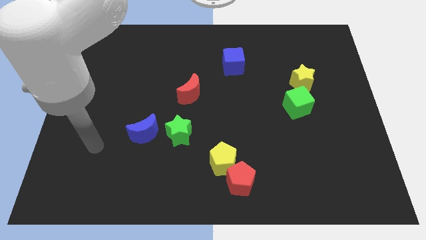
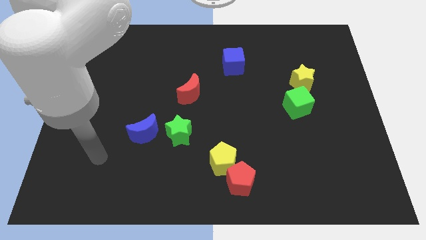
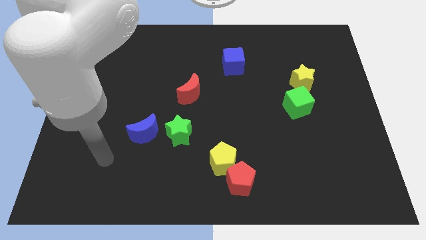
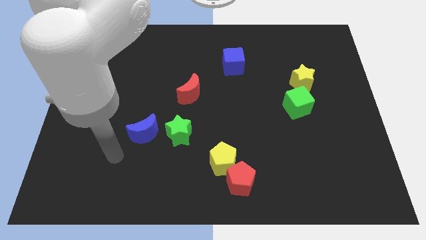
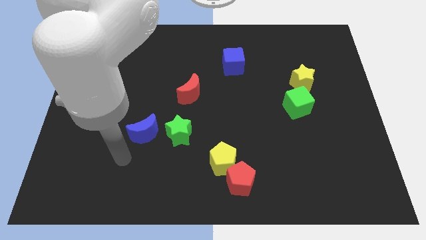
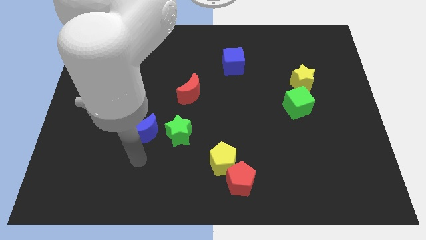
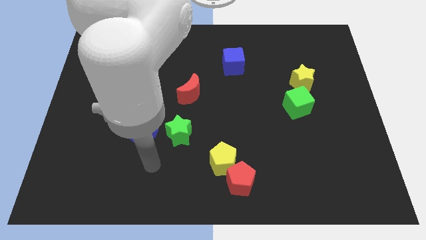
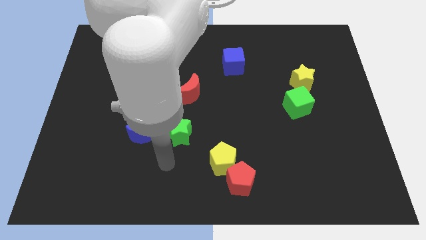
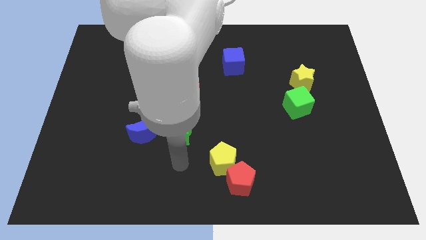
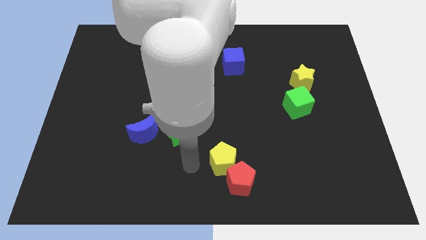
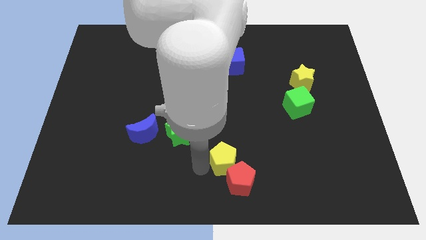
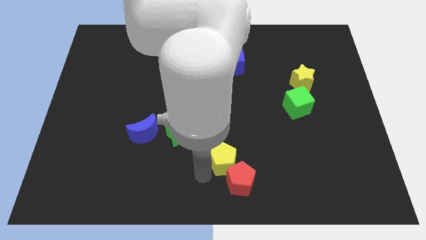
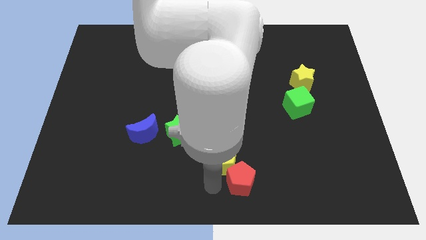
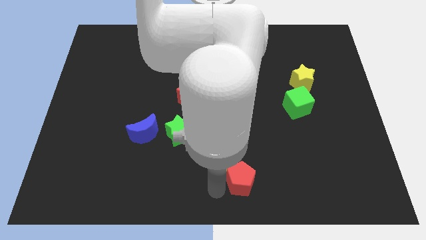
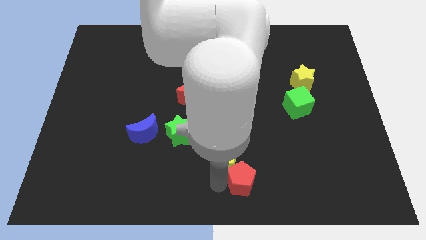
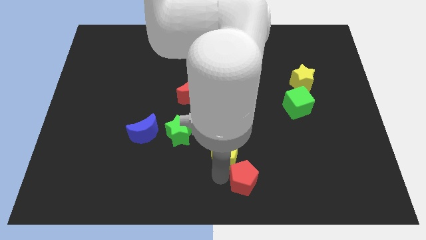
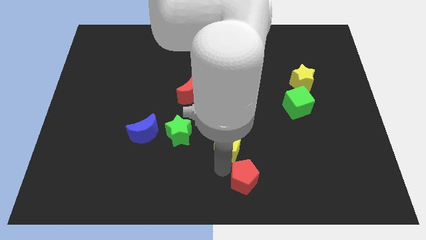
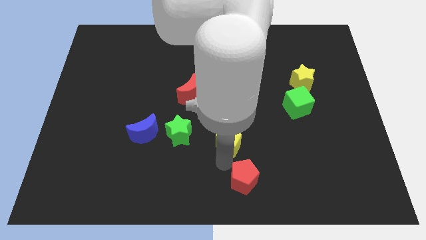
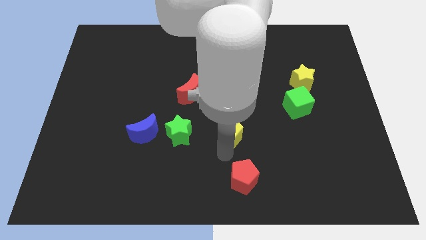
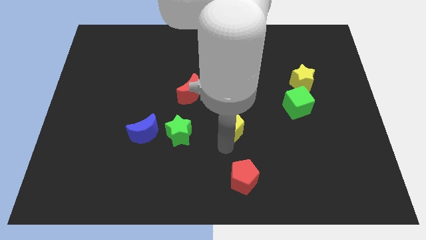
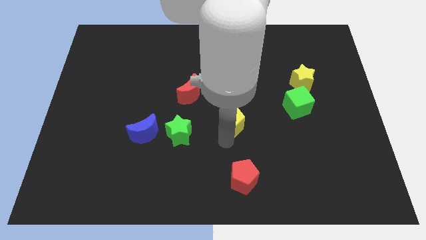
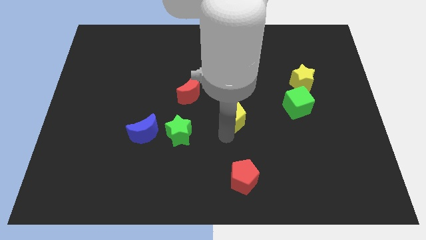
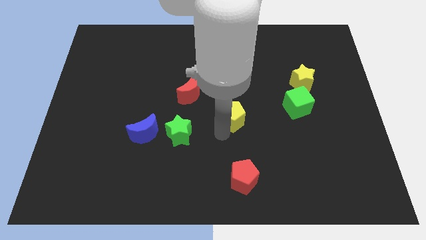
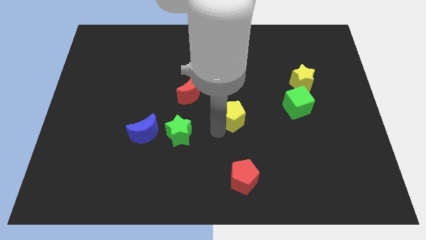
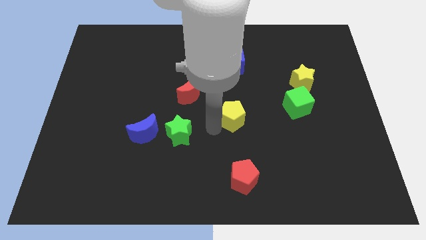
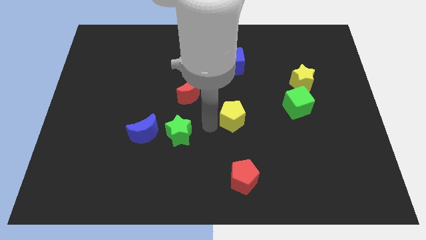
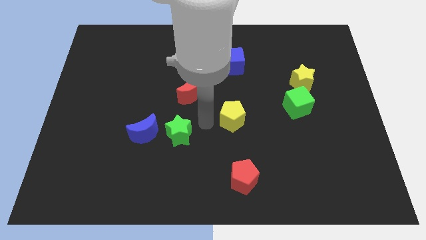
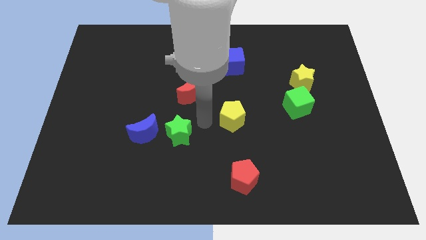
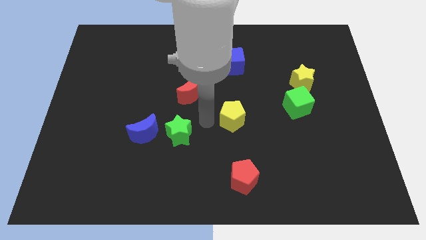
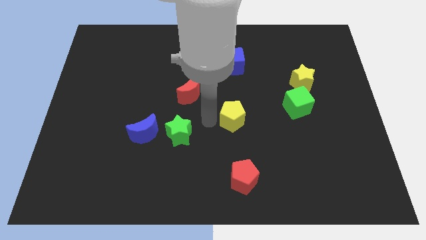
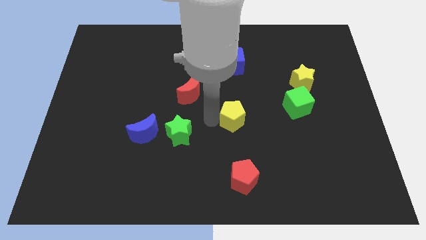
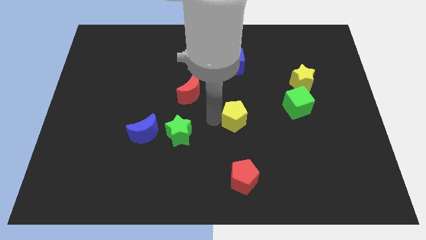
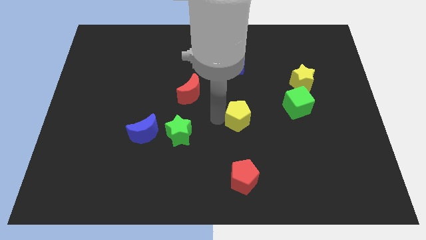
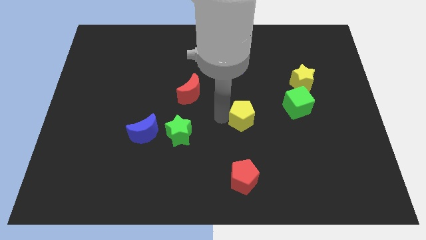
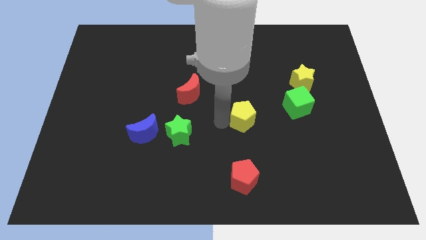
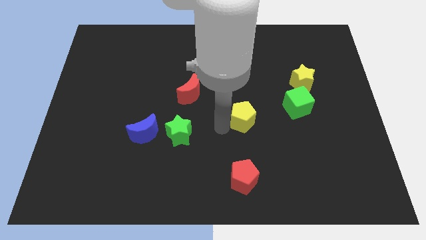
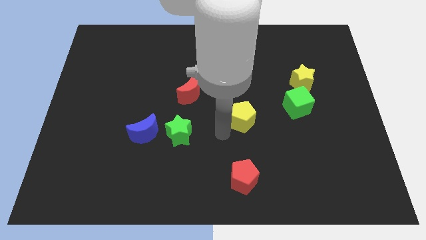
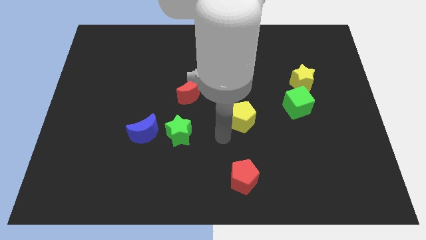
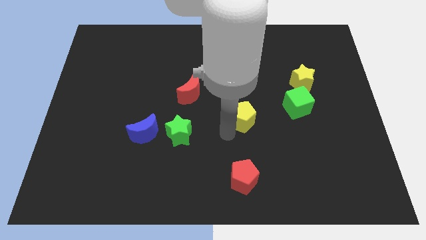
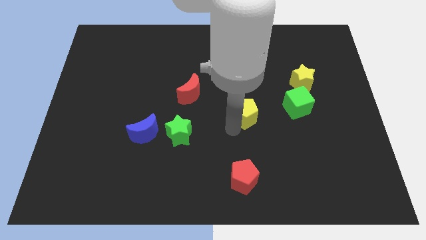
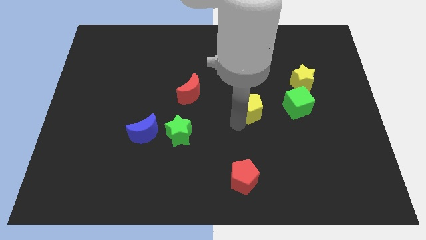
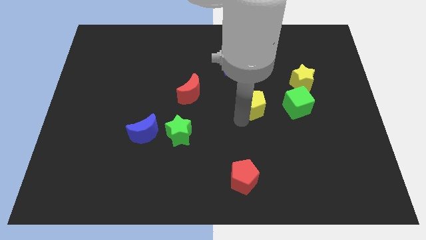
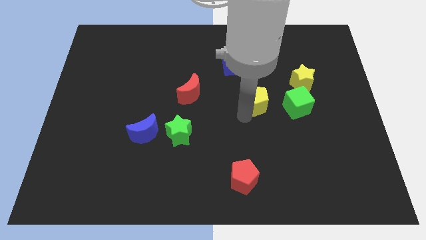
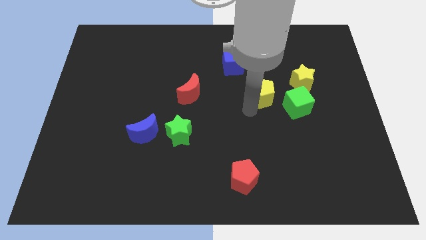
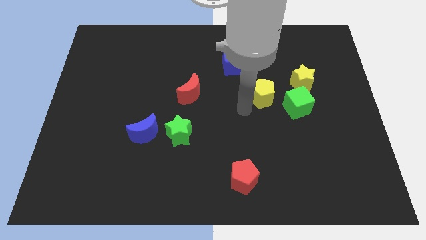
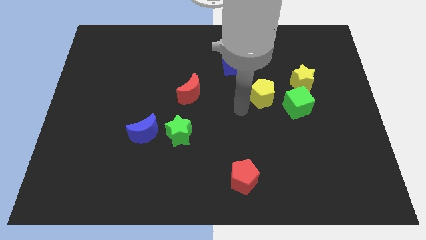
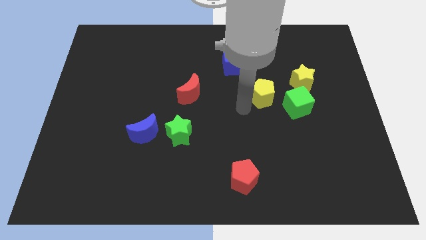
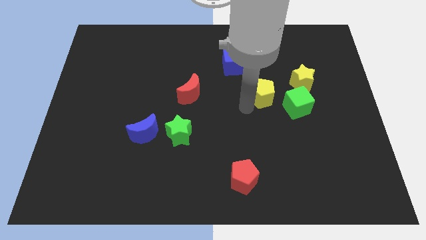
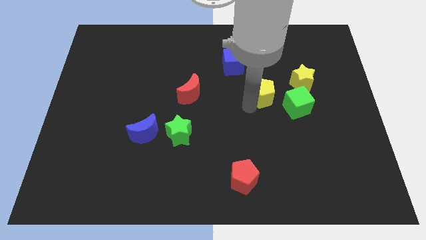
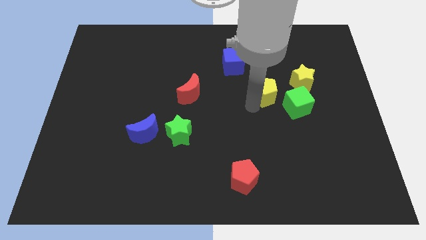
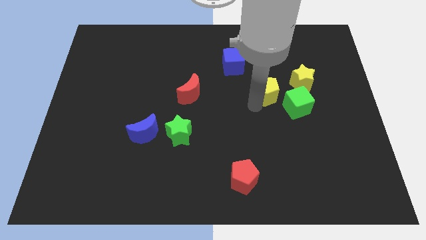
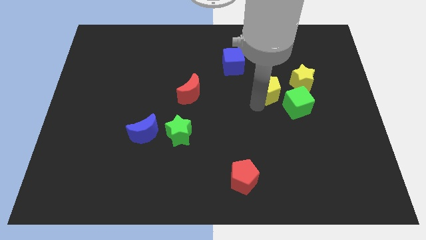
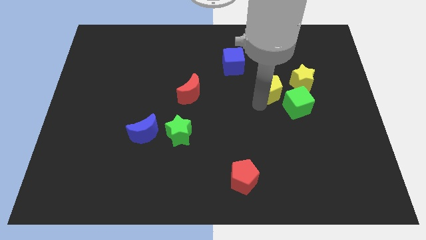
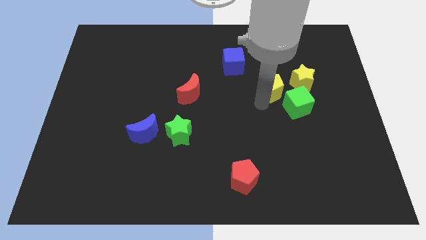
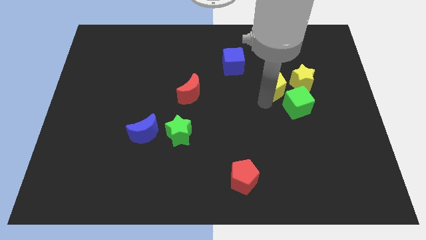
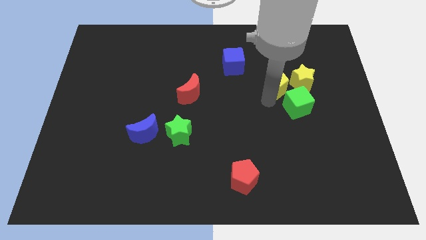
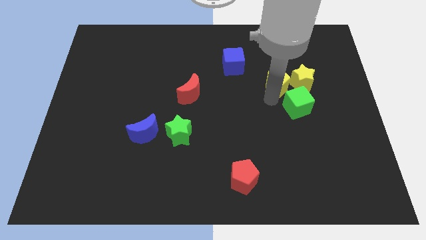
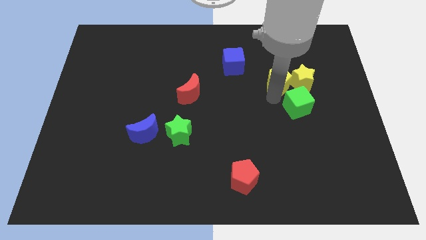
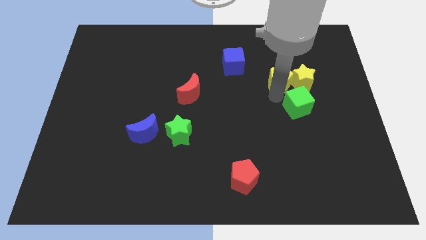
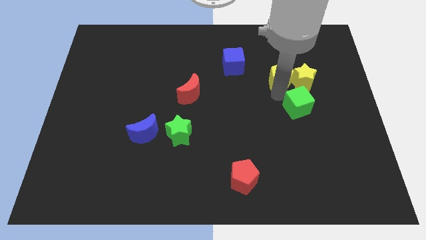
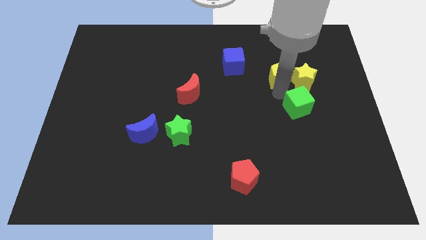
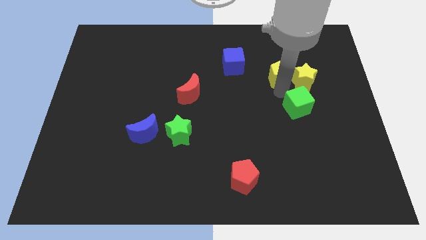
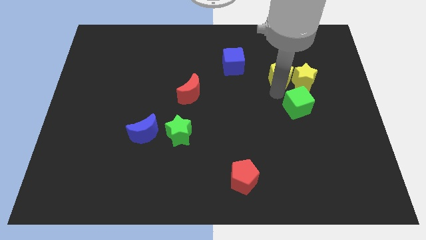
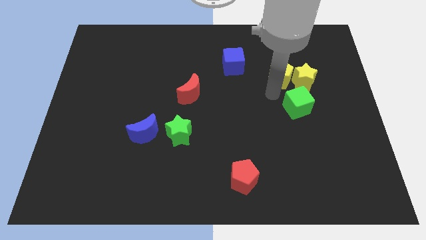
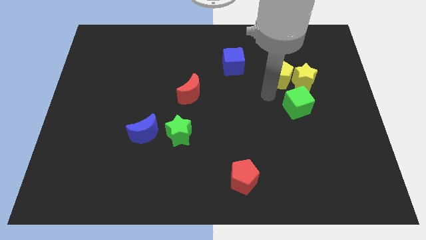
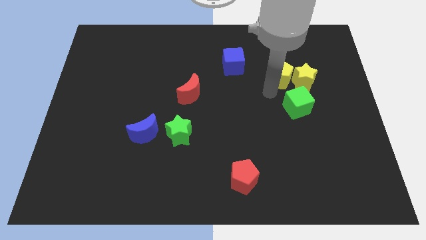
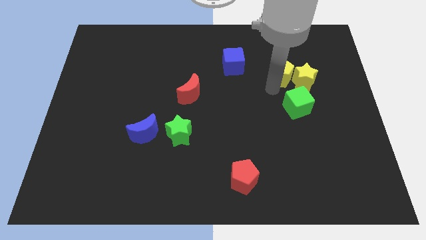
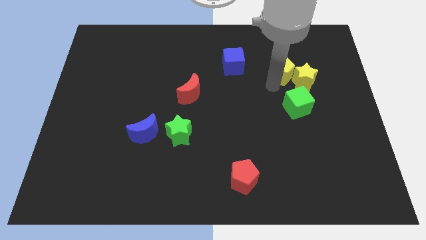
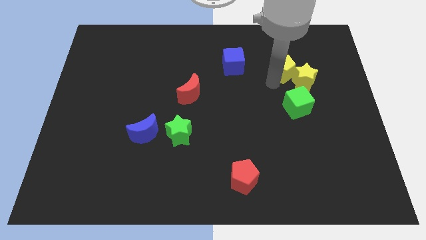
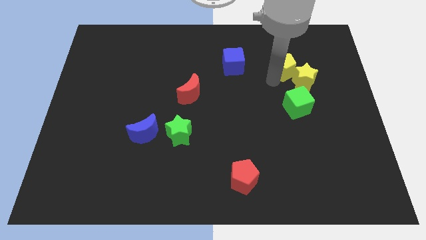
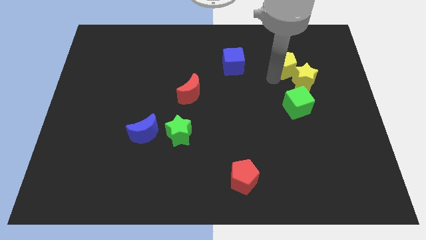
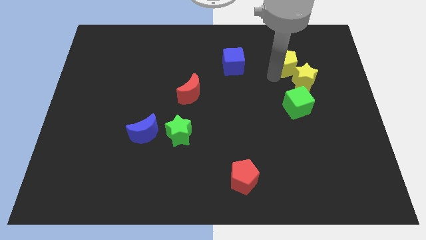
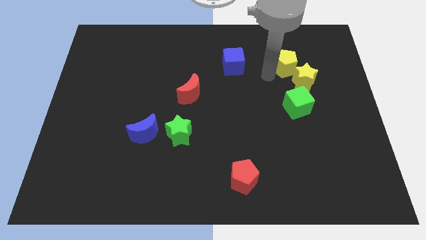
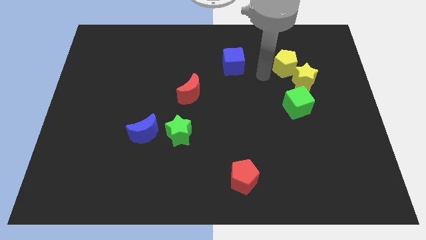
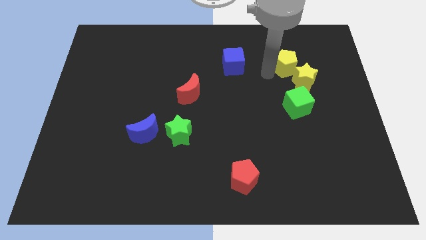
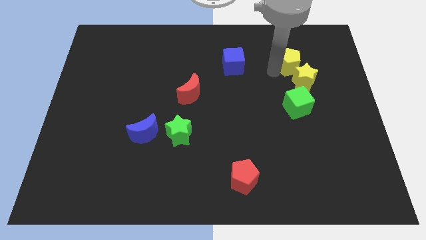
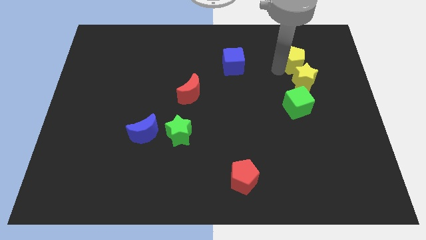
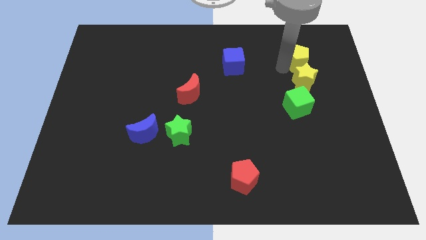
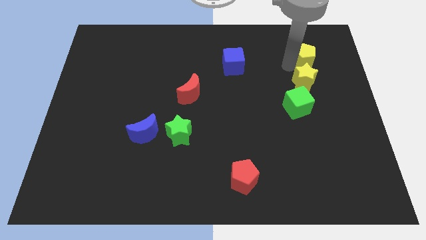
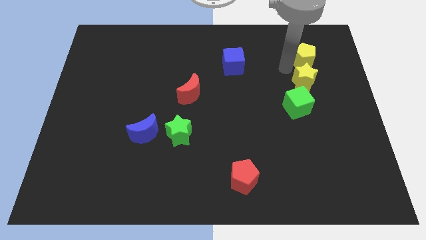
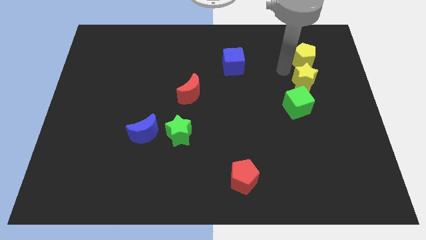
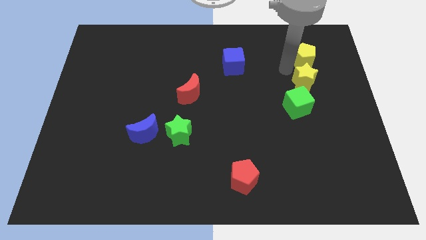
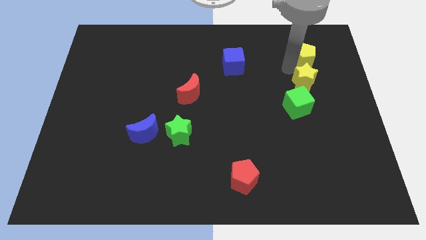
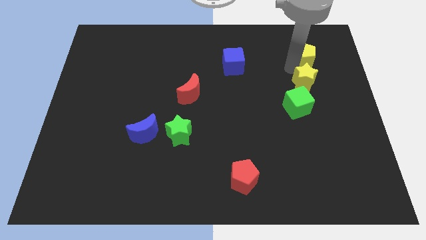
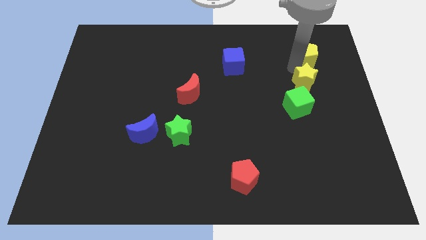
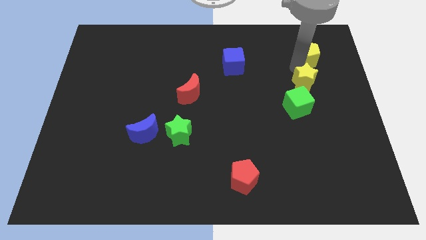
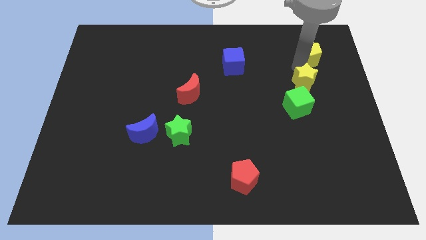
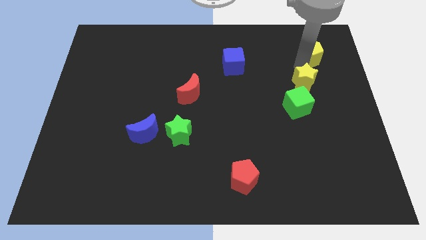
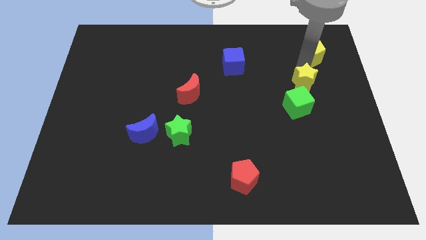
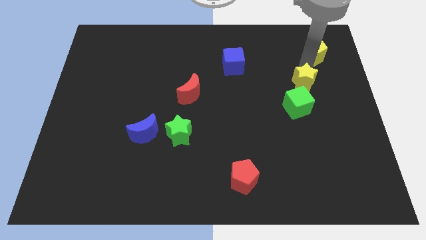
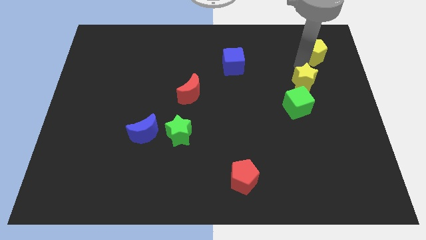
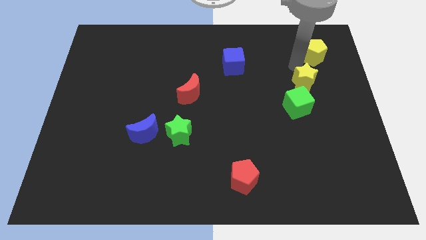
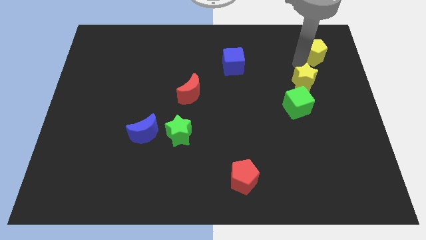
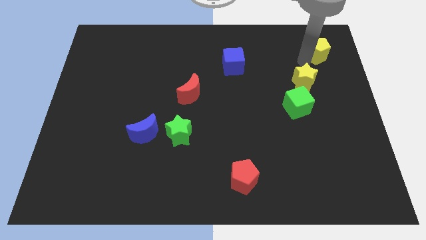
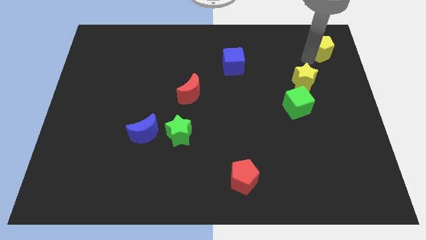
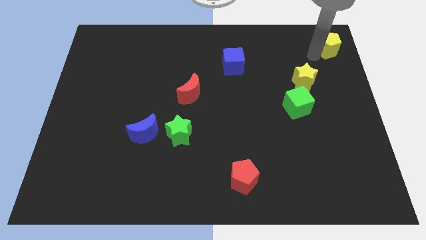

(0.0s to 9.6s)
move the yellow pentagon to the top right corner
